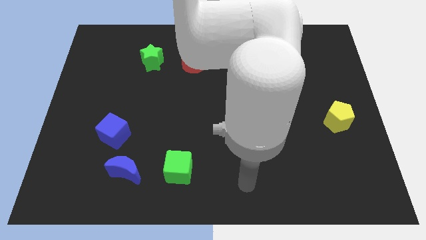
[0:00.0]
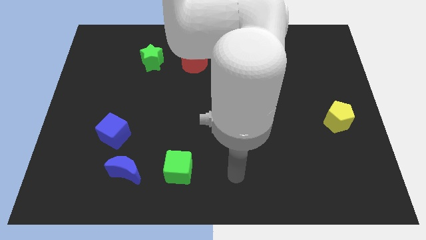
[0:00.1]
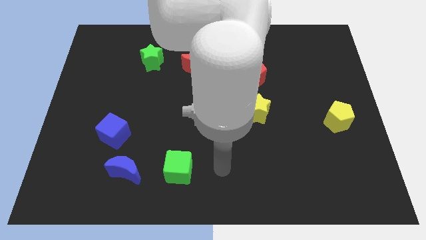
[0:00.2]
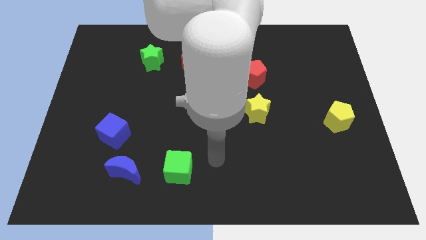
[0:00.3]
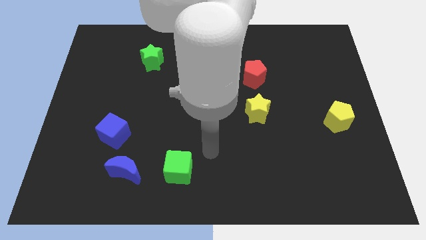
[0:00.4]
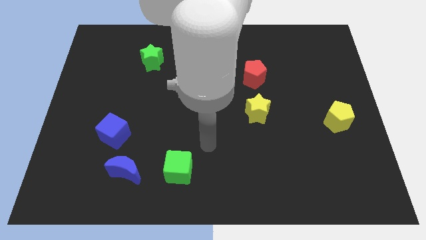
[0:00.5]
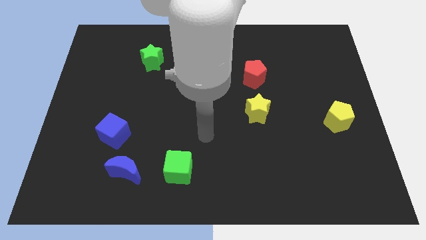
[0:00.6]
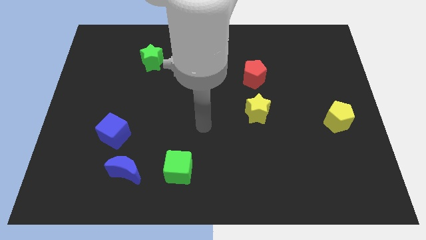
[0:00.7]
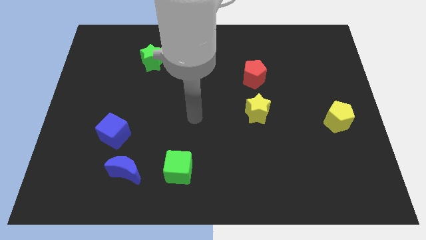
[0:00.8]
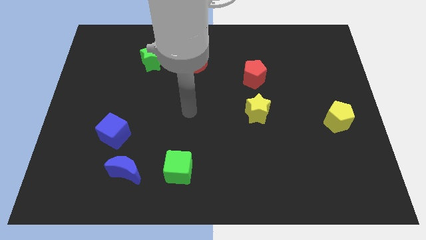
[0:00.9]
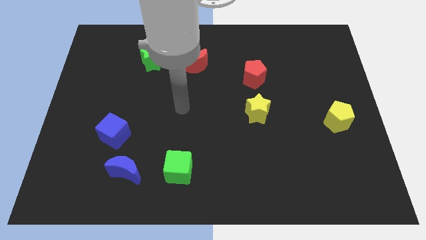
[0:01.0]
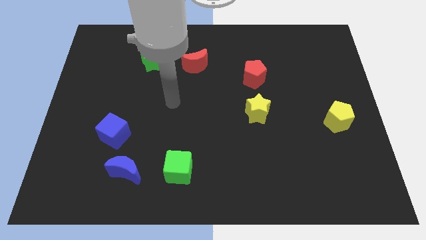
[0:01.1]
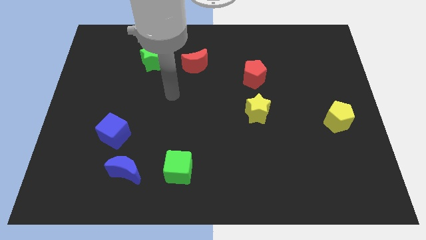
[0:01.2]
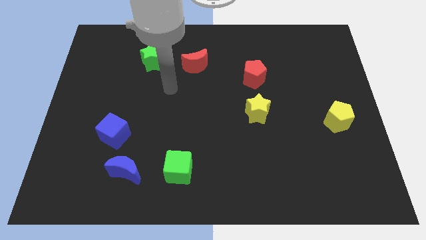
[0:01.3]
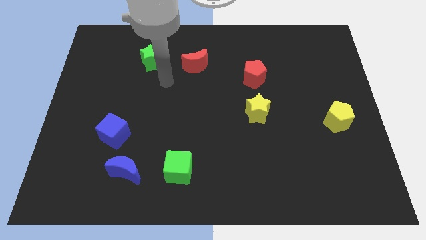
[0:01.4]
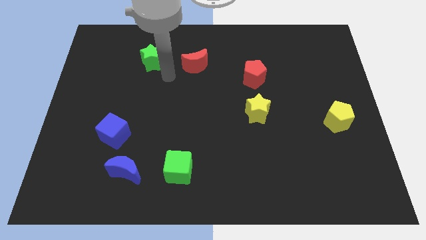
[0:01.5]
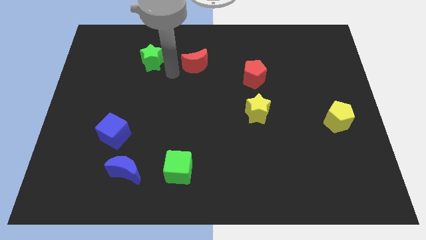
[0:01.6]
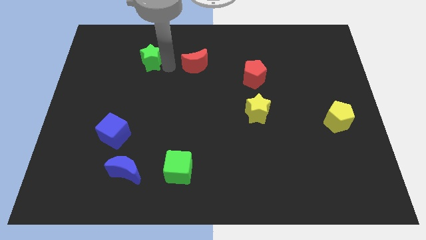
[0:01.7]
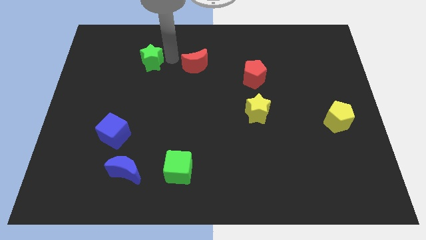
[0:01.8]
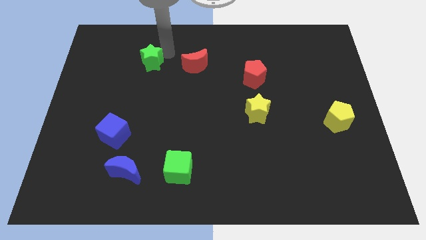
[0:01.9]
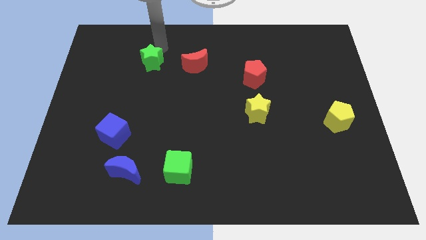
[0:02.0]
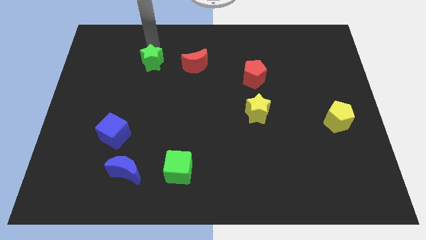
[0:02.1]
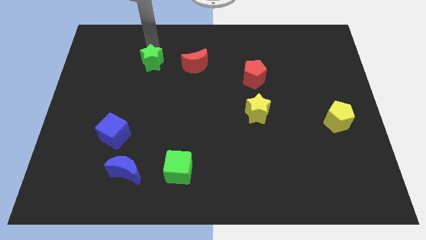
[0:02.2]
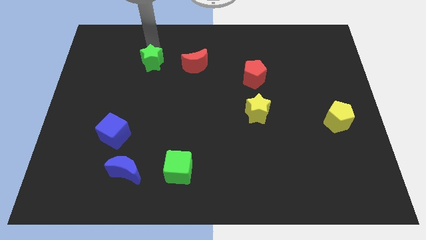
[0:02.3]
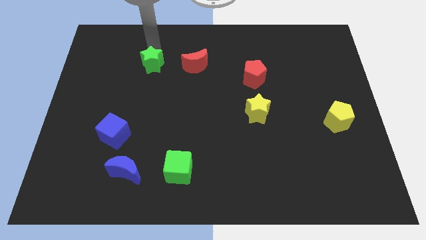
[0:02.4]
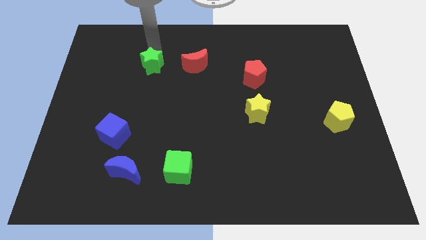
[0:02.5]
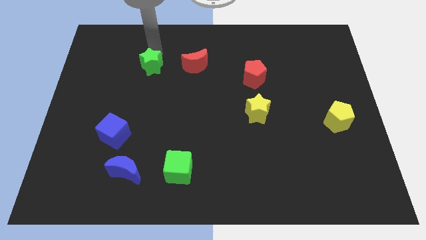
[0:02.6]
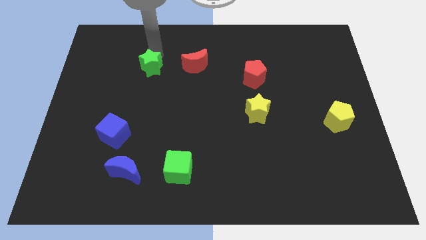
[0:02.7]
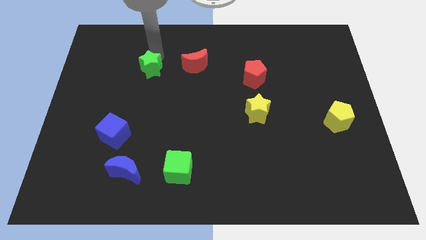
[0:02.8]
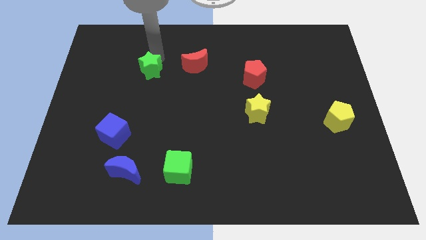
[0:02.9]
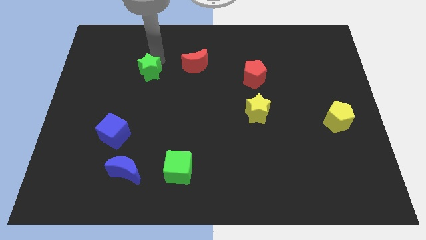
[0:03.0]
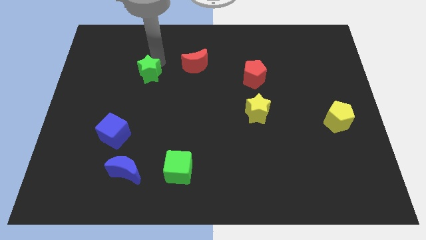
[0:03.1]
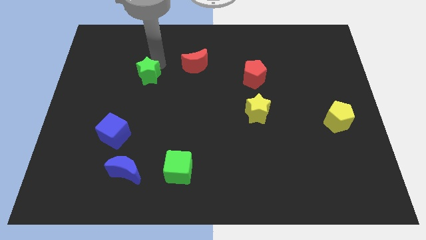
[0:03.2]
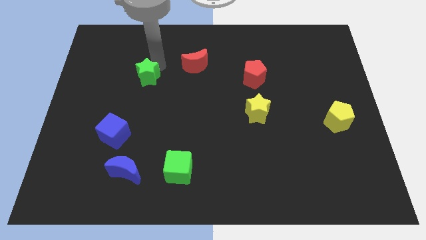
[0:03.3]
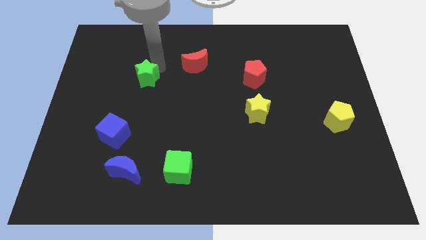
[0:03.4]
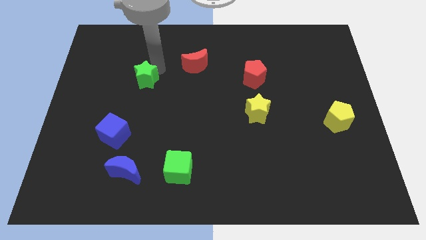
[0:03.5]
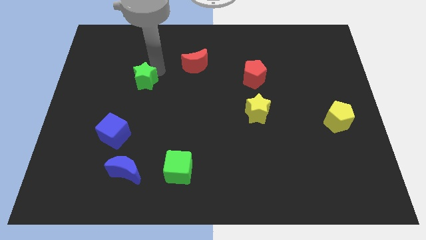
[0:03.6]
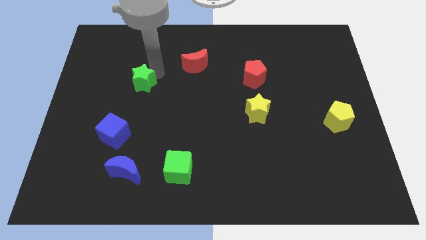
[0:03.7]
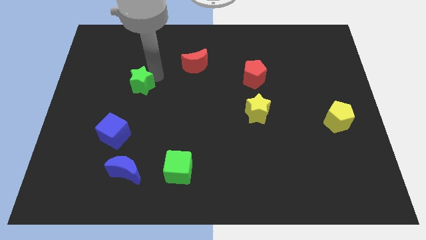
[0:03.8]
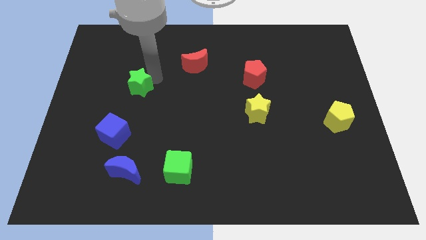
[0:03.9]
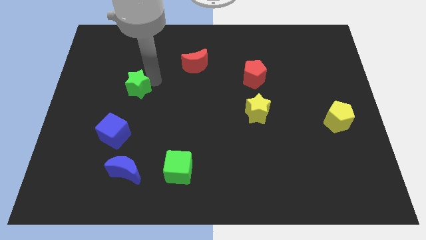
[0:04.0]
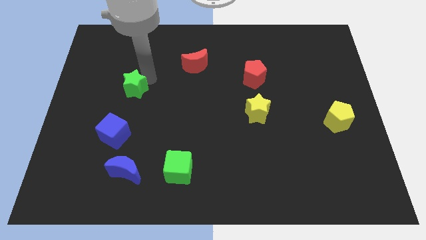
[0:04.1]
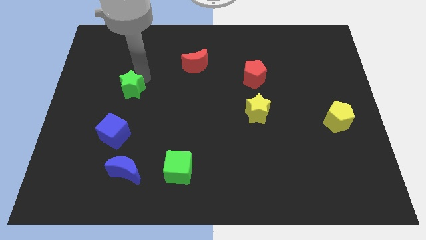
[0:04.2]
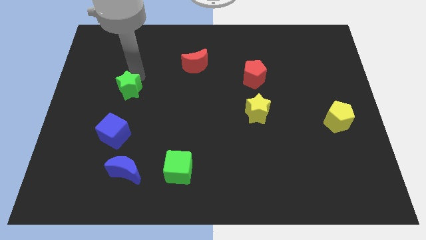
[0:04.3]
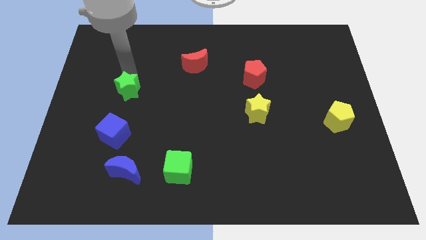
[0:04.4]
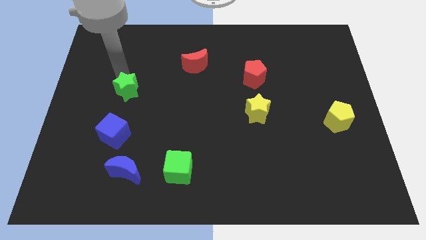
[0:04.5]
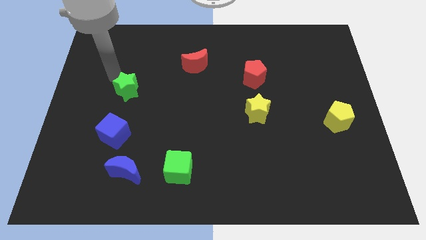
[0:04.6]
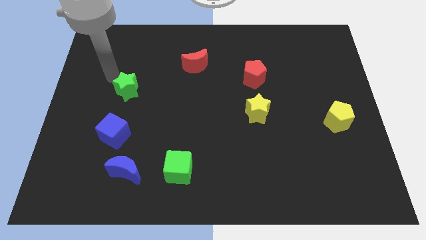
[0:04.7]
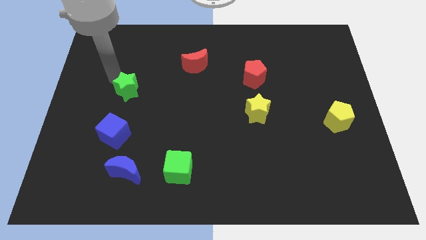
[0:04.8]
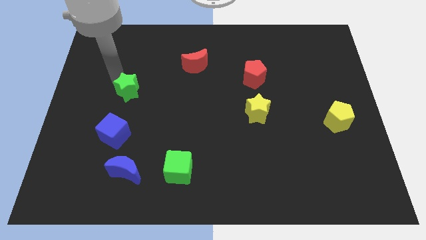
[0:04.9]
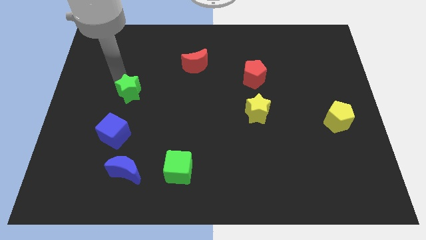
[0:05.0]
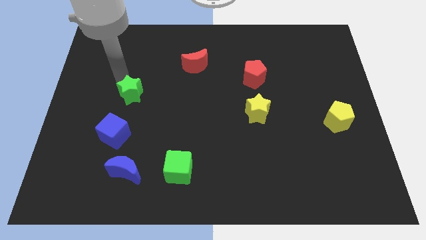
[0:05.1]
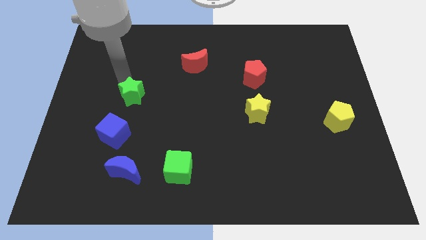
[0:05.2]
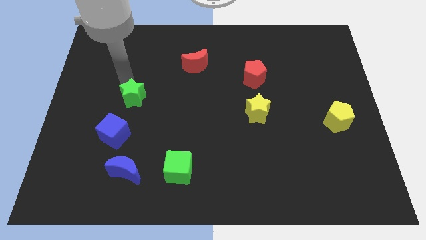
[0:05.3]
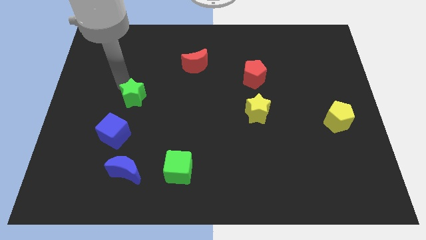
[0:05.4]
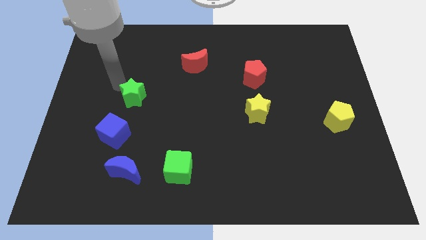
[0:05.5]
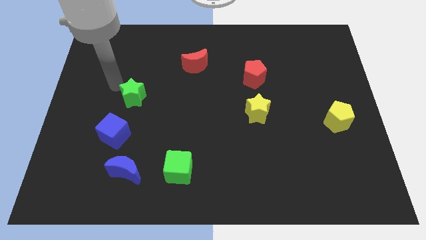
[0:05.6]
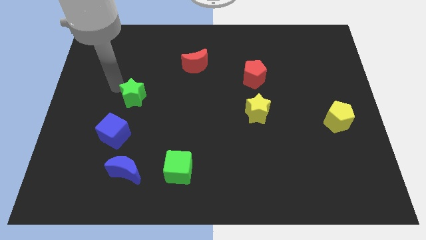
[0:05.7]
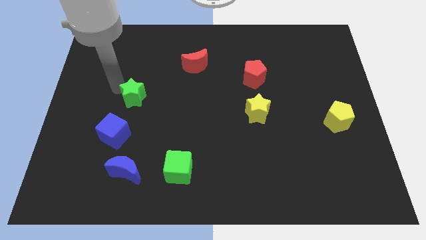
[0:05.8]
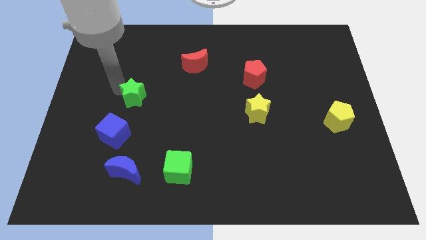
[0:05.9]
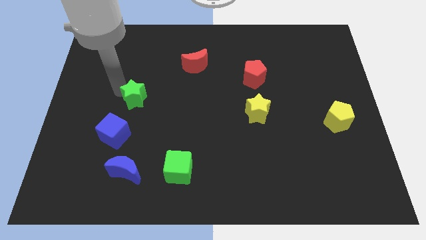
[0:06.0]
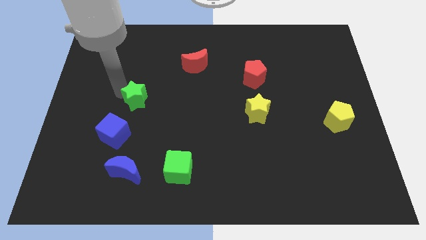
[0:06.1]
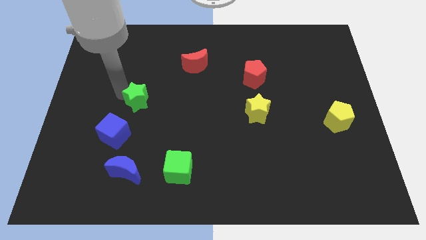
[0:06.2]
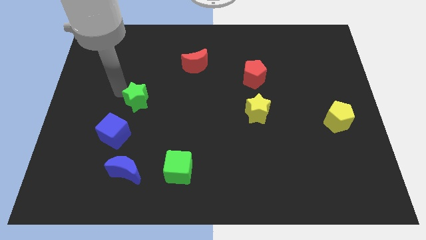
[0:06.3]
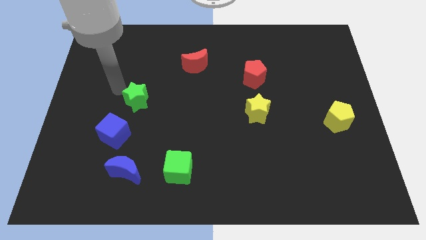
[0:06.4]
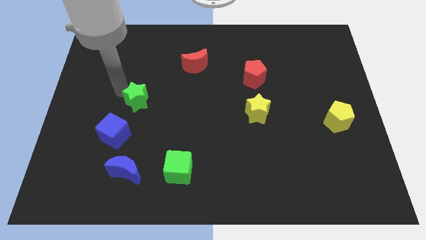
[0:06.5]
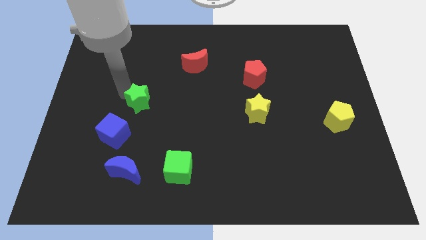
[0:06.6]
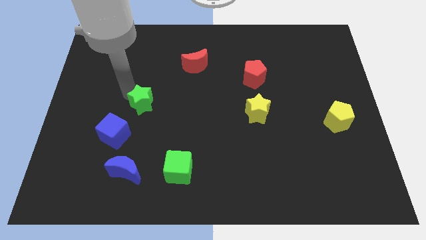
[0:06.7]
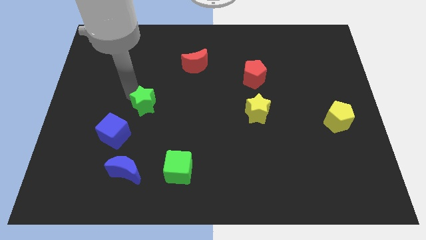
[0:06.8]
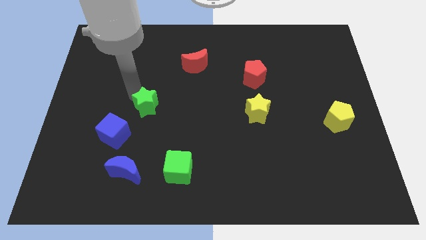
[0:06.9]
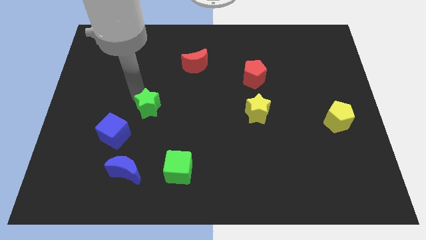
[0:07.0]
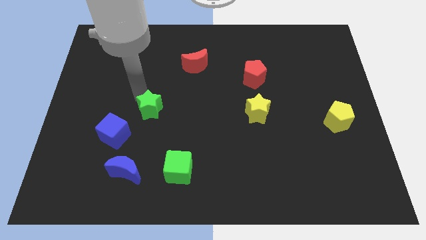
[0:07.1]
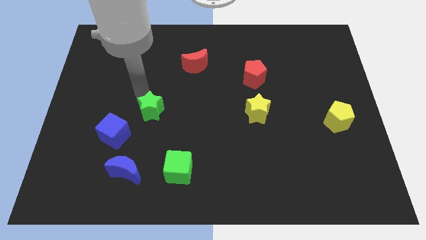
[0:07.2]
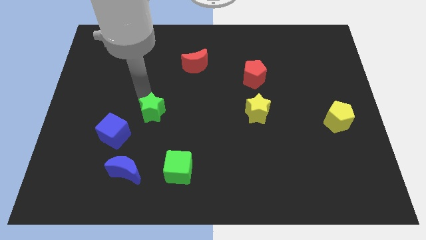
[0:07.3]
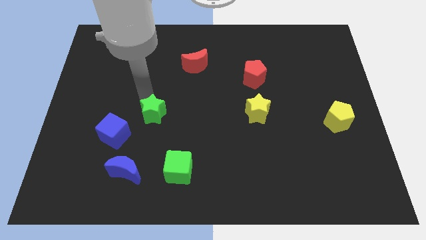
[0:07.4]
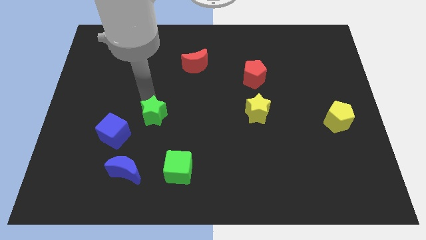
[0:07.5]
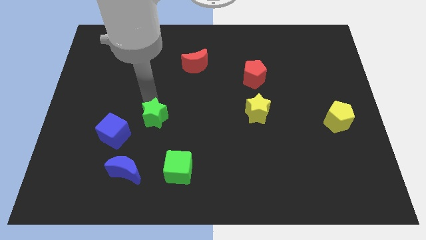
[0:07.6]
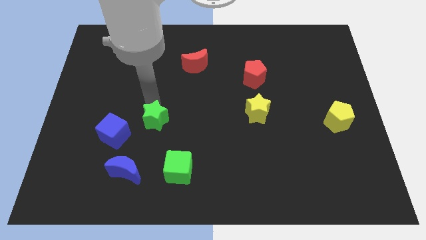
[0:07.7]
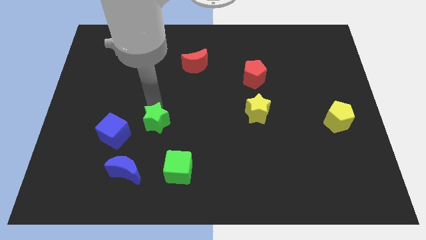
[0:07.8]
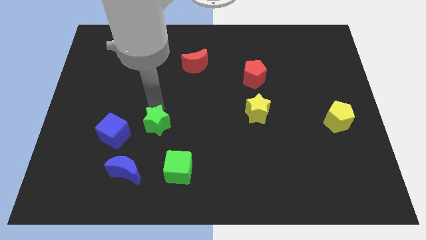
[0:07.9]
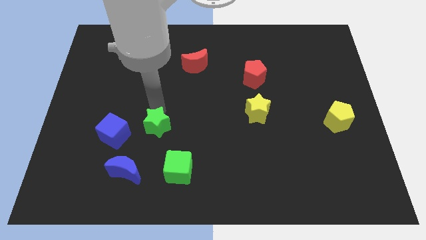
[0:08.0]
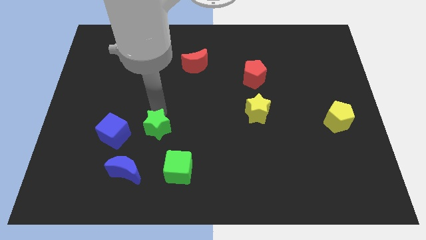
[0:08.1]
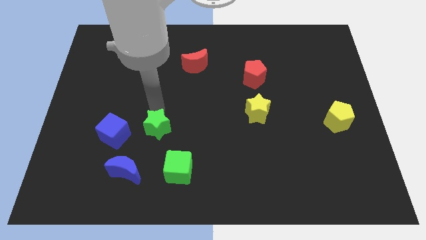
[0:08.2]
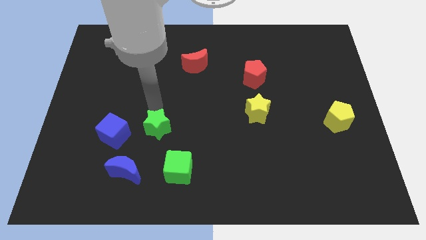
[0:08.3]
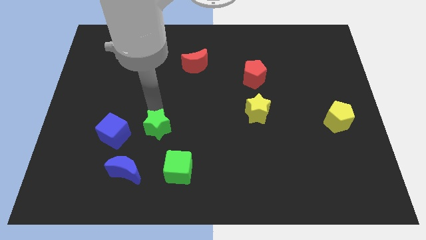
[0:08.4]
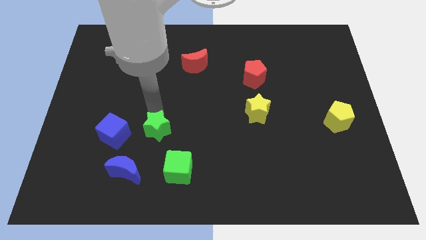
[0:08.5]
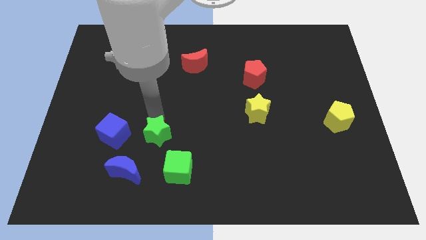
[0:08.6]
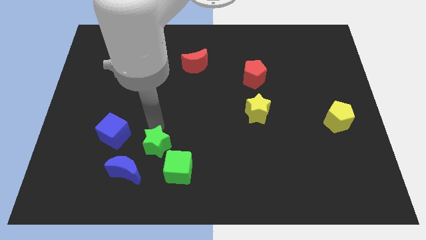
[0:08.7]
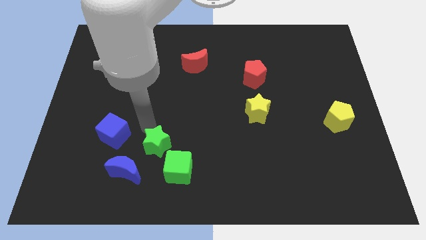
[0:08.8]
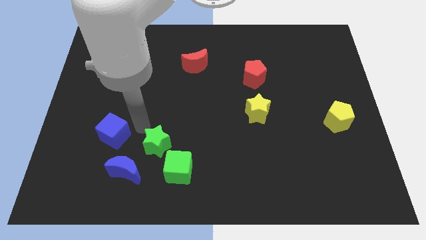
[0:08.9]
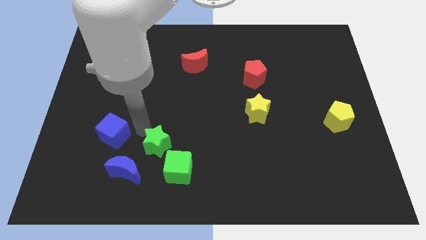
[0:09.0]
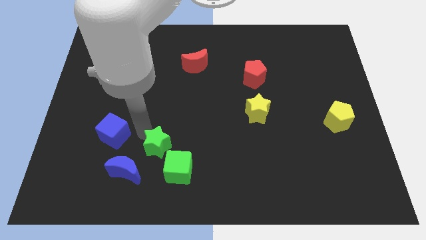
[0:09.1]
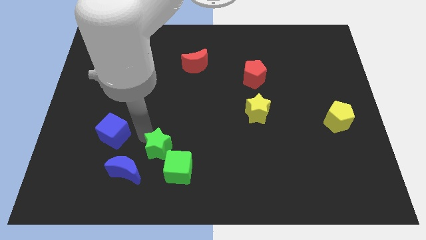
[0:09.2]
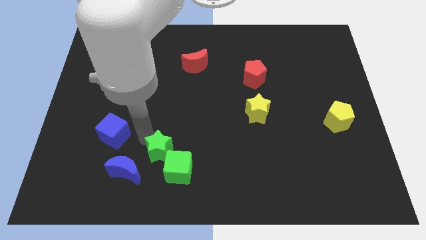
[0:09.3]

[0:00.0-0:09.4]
slide the green star towards the green cube
